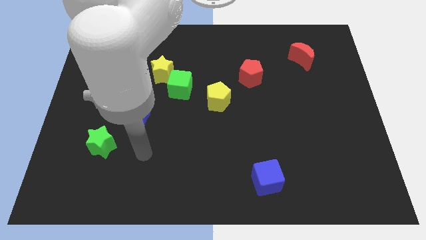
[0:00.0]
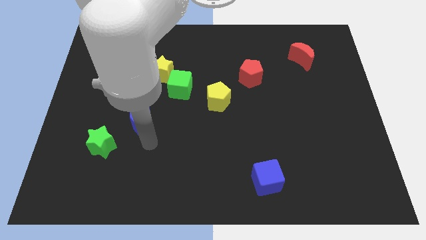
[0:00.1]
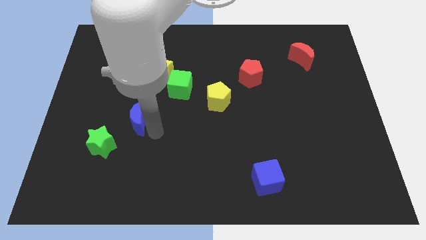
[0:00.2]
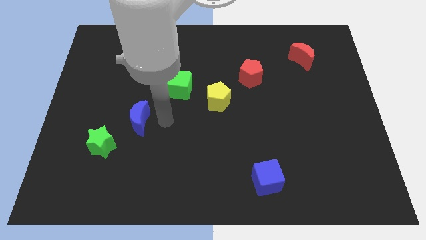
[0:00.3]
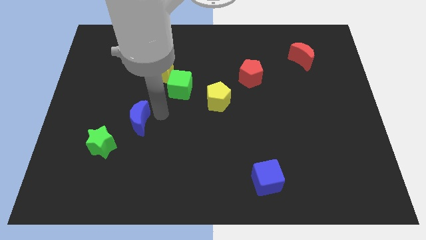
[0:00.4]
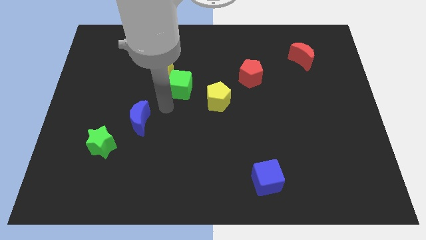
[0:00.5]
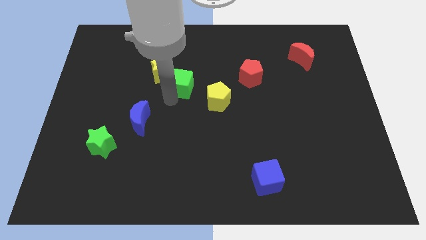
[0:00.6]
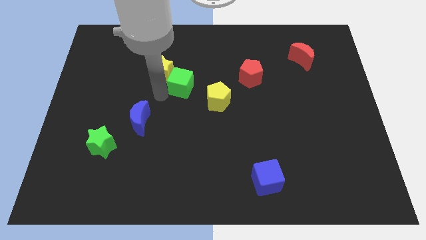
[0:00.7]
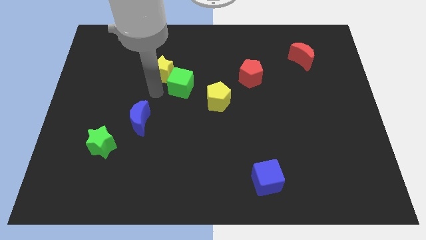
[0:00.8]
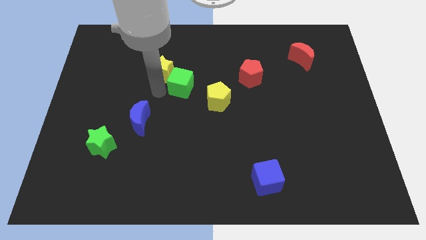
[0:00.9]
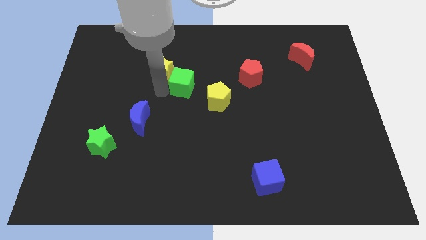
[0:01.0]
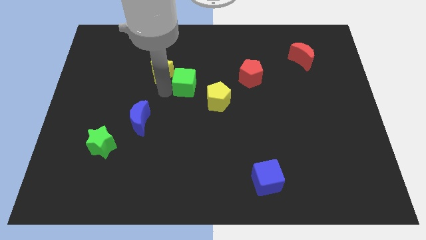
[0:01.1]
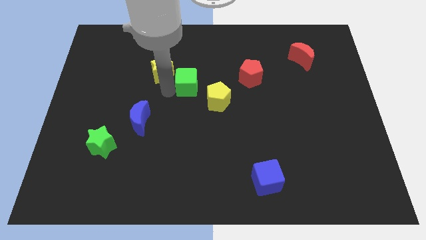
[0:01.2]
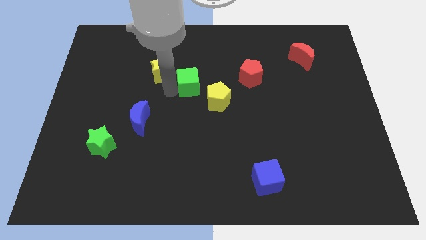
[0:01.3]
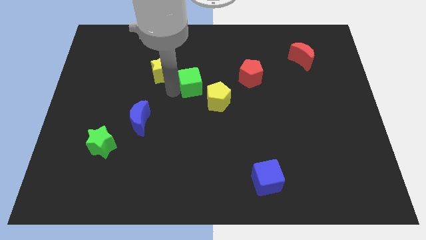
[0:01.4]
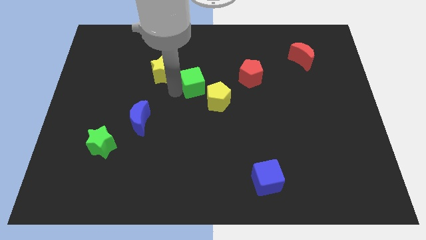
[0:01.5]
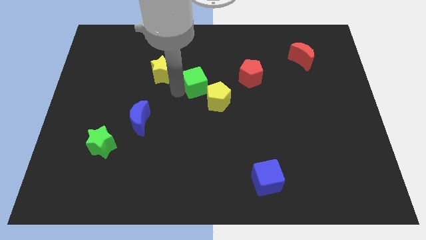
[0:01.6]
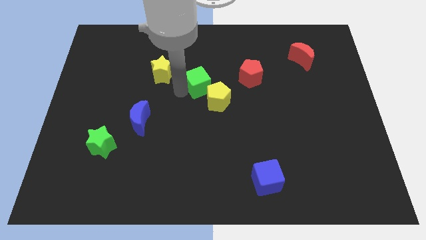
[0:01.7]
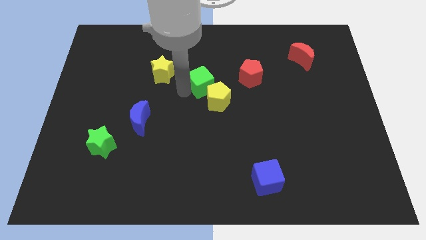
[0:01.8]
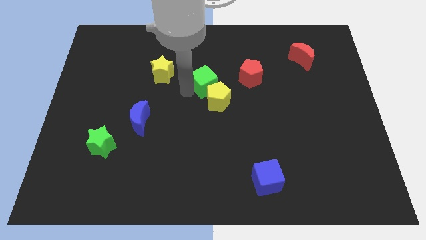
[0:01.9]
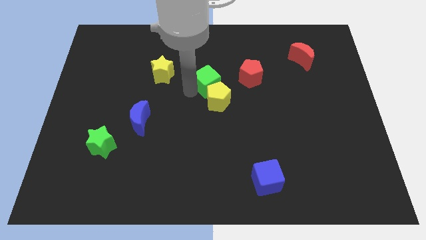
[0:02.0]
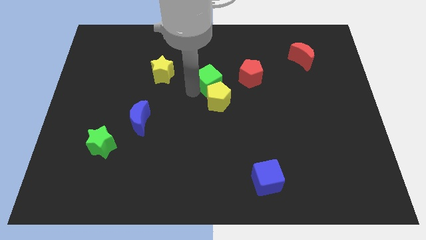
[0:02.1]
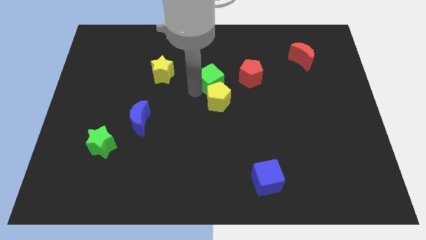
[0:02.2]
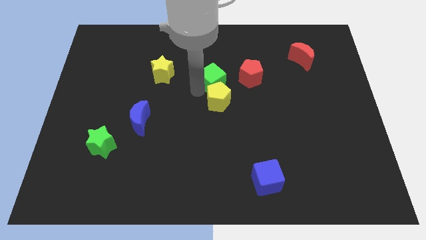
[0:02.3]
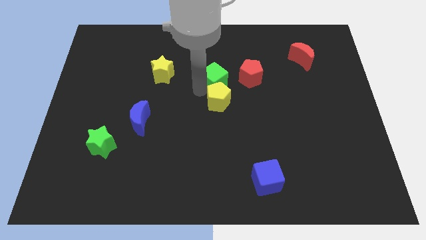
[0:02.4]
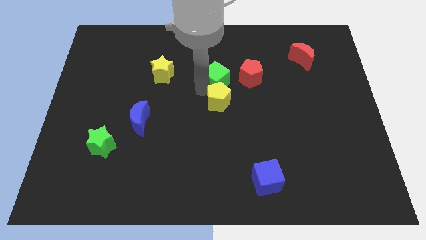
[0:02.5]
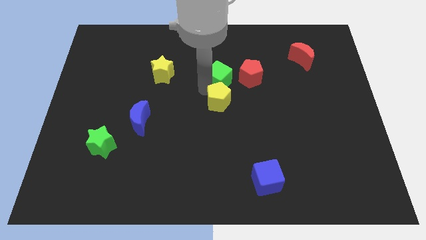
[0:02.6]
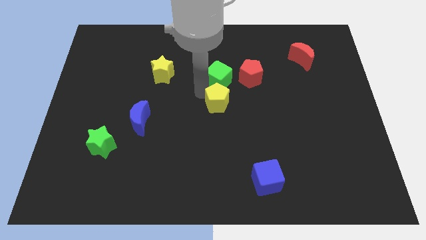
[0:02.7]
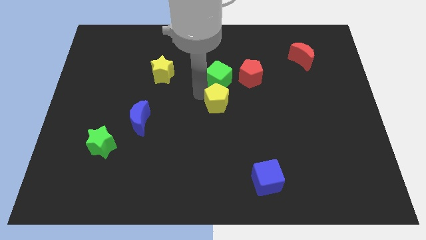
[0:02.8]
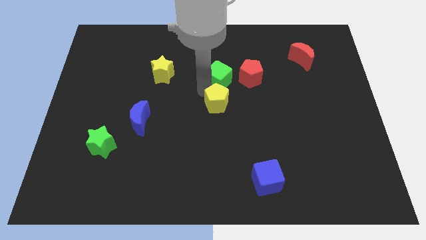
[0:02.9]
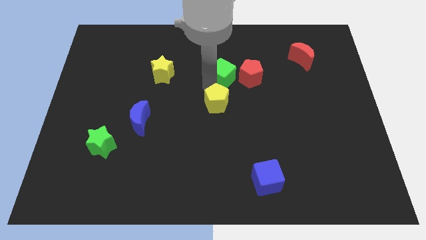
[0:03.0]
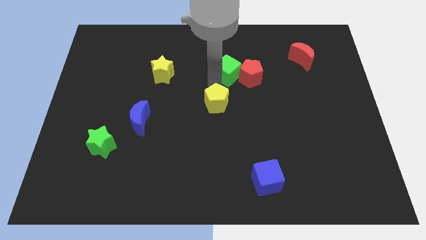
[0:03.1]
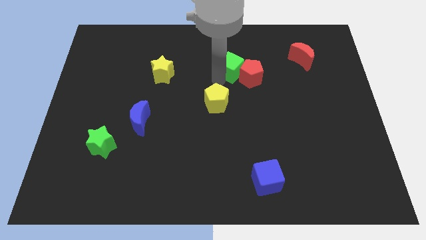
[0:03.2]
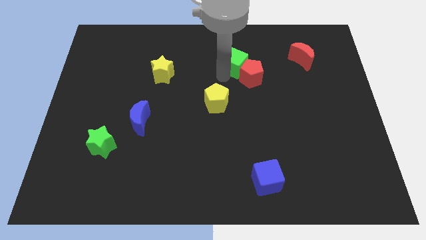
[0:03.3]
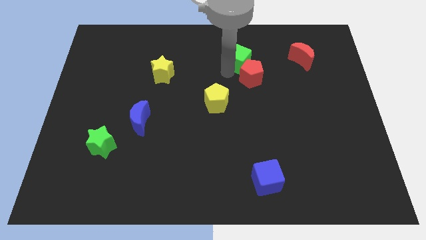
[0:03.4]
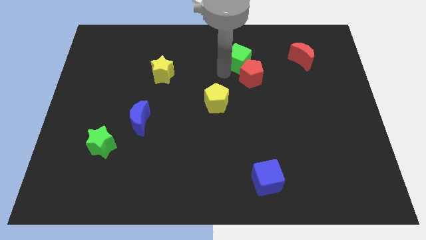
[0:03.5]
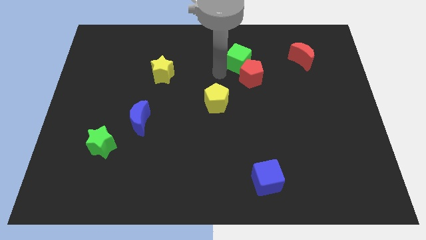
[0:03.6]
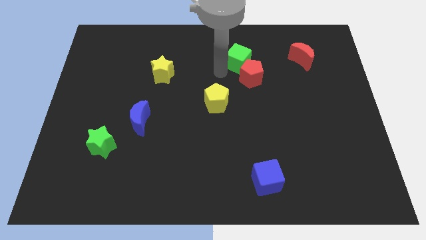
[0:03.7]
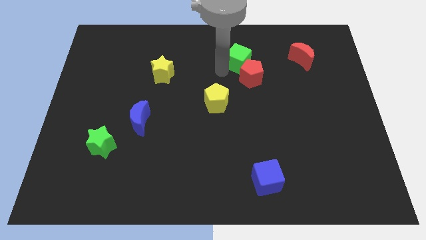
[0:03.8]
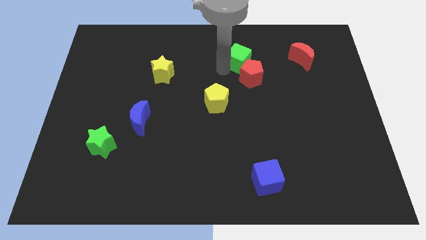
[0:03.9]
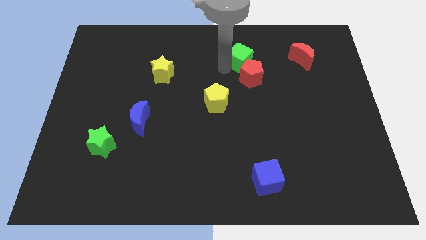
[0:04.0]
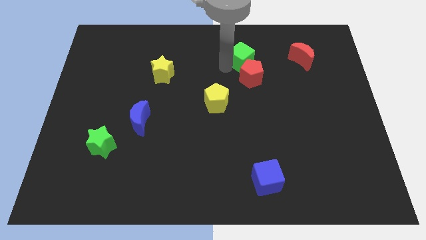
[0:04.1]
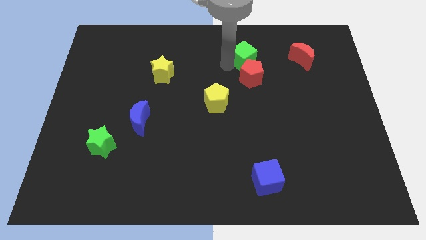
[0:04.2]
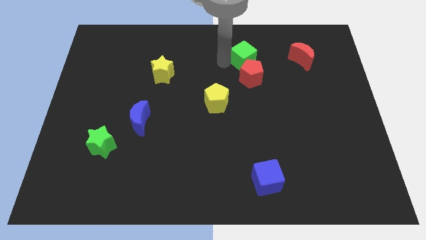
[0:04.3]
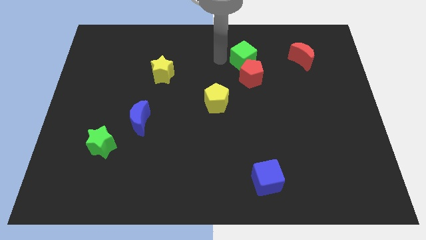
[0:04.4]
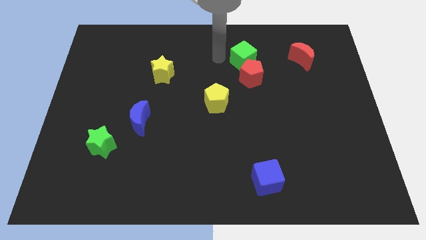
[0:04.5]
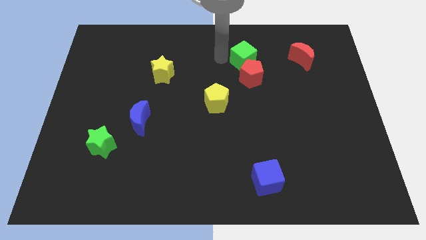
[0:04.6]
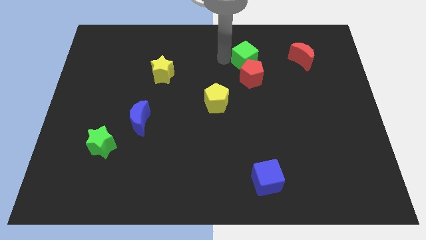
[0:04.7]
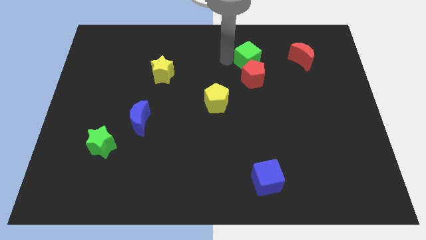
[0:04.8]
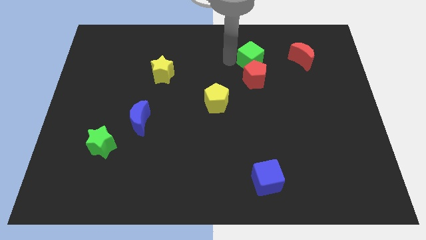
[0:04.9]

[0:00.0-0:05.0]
slide the green cube diagonally up and to the right of the red pentagon
